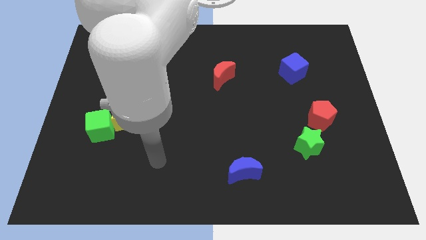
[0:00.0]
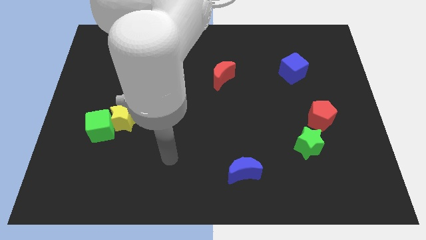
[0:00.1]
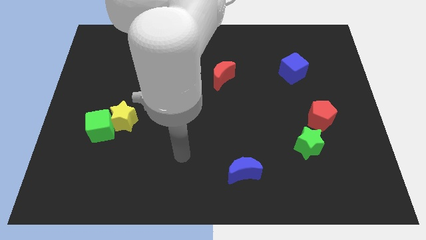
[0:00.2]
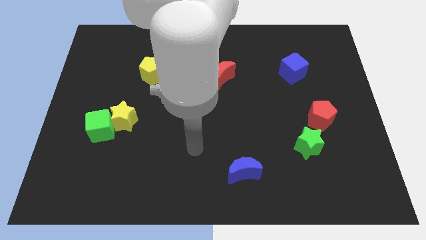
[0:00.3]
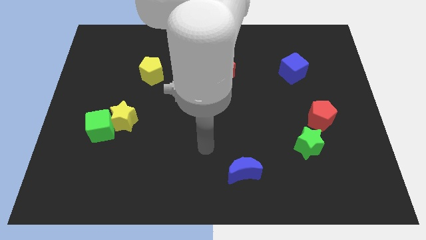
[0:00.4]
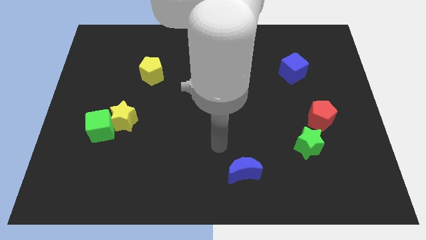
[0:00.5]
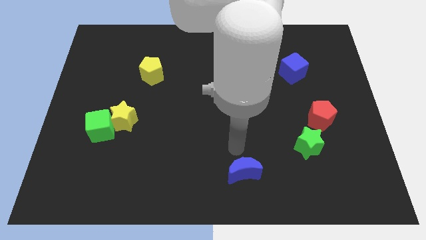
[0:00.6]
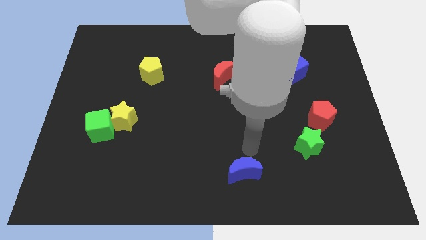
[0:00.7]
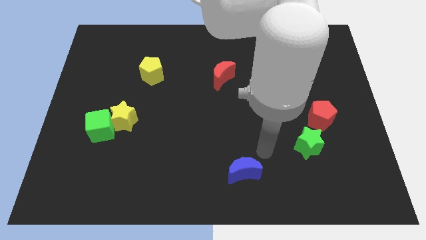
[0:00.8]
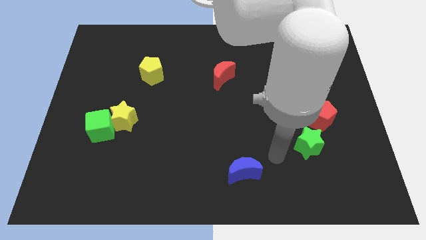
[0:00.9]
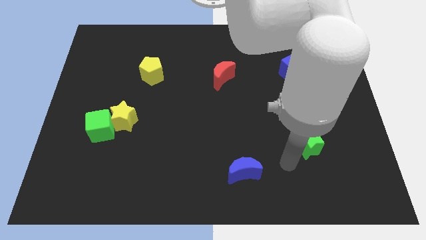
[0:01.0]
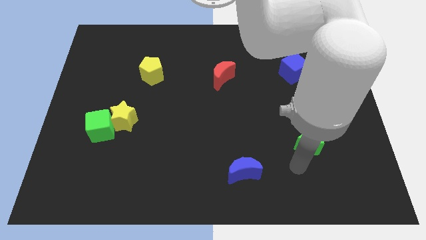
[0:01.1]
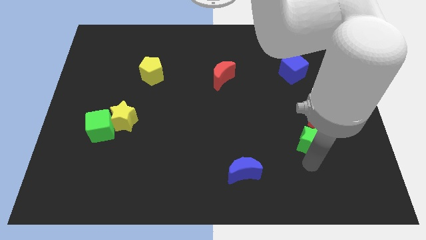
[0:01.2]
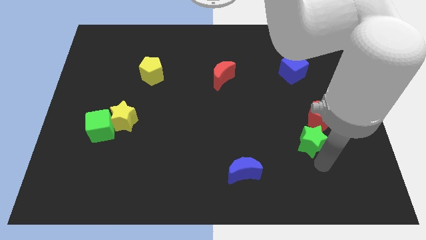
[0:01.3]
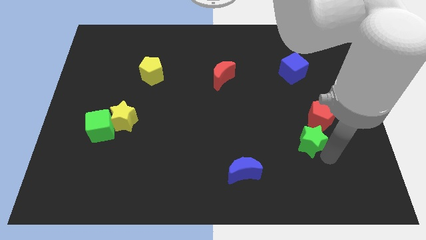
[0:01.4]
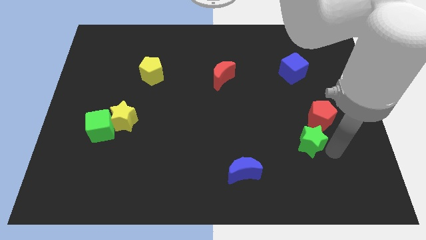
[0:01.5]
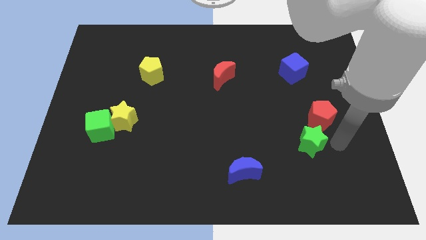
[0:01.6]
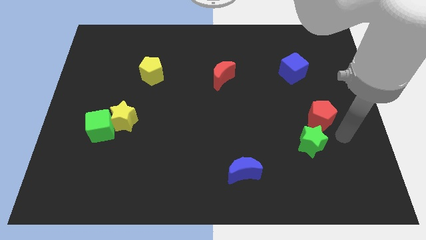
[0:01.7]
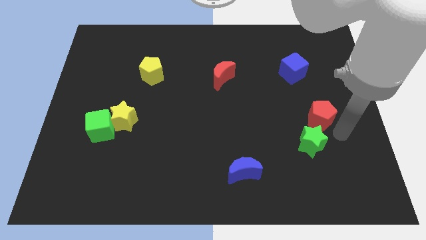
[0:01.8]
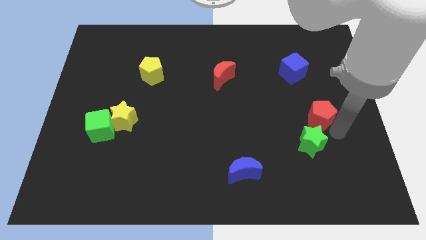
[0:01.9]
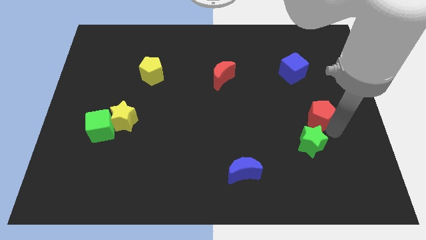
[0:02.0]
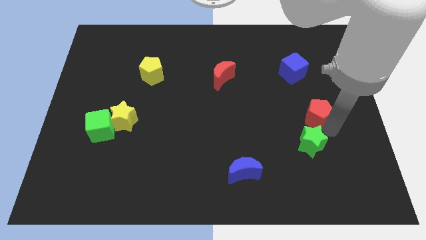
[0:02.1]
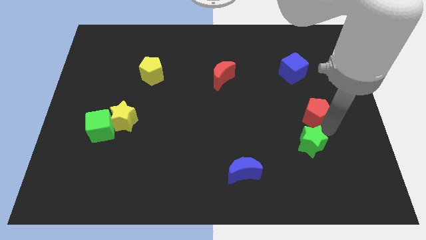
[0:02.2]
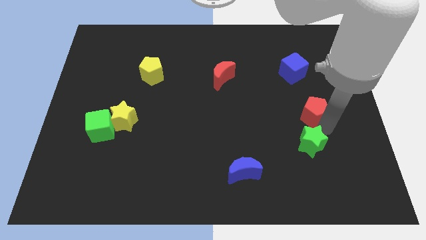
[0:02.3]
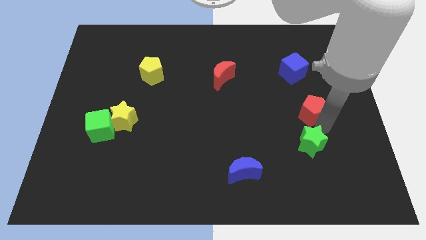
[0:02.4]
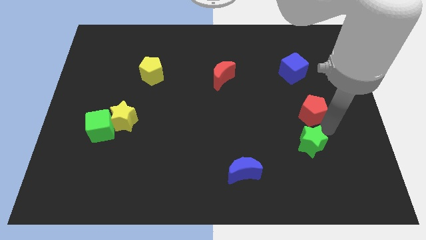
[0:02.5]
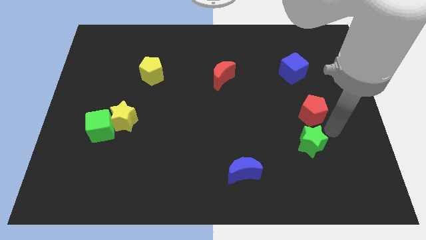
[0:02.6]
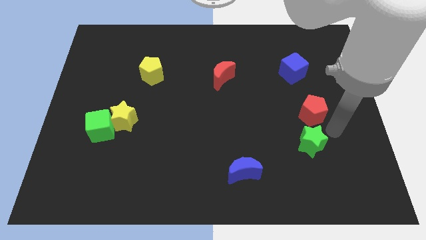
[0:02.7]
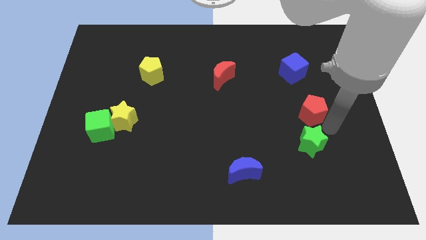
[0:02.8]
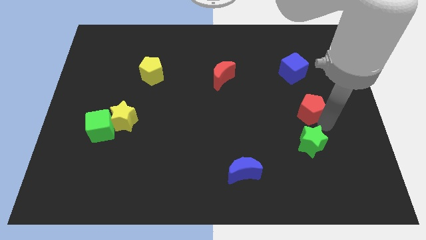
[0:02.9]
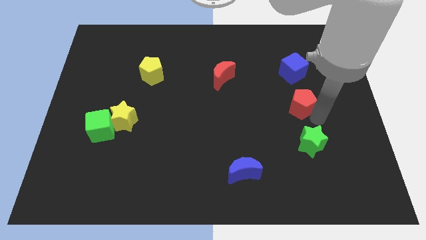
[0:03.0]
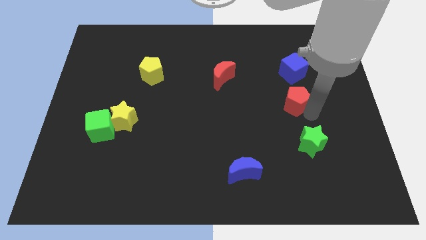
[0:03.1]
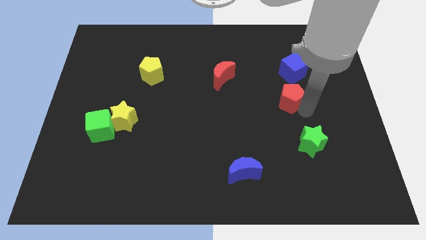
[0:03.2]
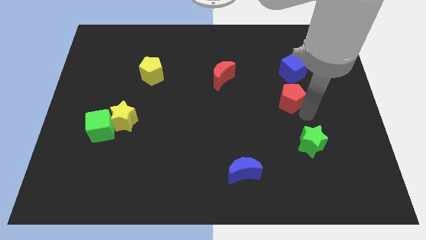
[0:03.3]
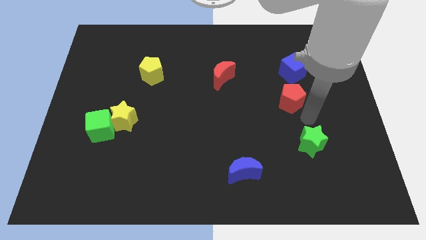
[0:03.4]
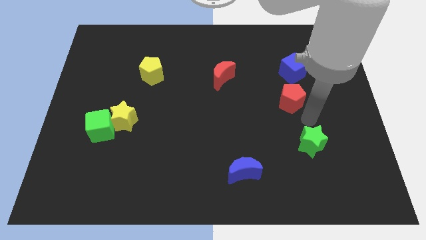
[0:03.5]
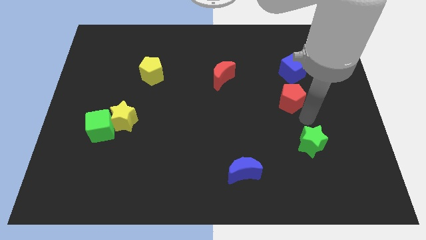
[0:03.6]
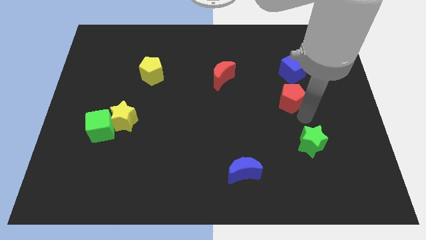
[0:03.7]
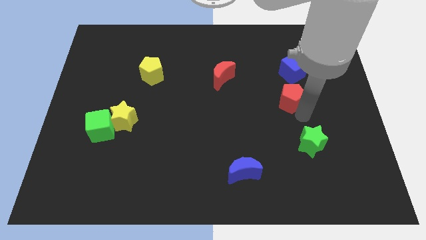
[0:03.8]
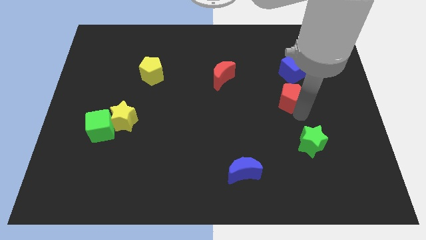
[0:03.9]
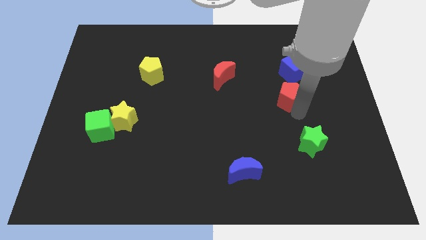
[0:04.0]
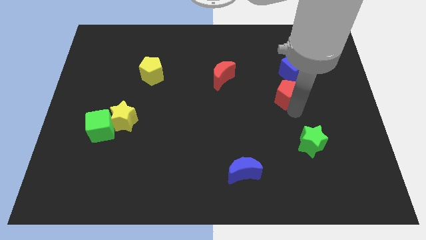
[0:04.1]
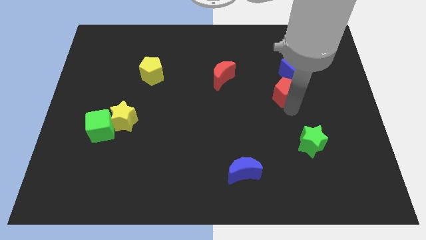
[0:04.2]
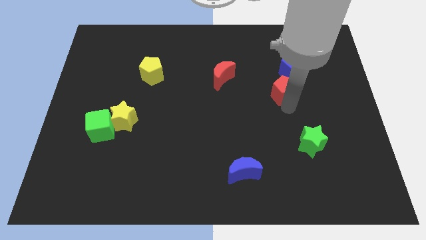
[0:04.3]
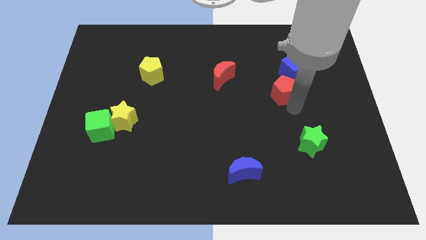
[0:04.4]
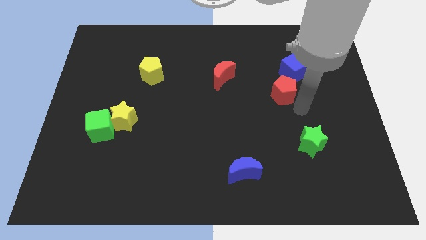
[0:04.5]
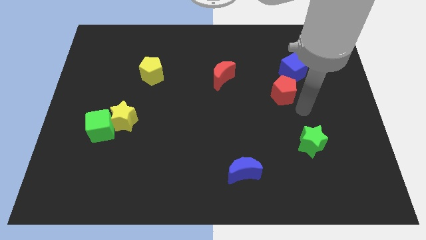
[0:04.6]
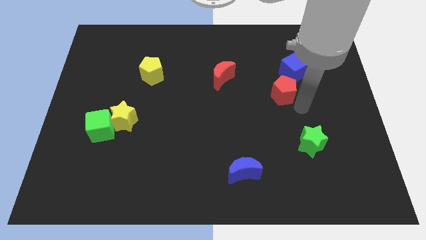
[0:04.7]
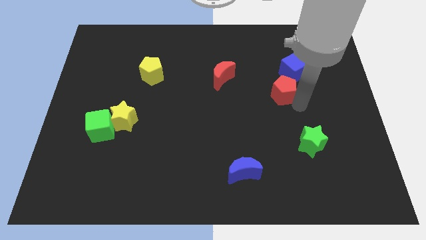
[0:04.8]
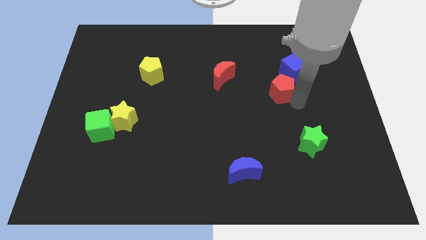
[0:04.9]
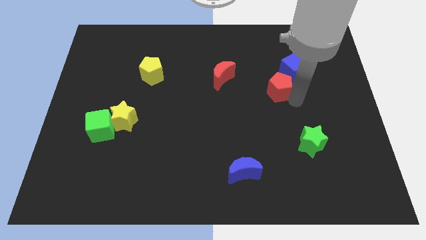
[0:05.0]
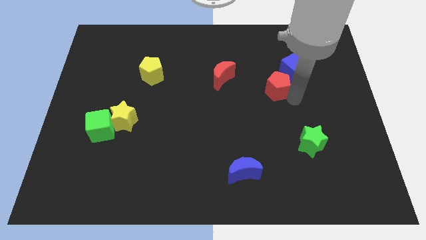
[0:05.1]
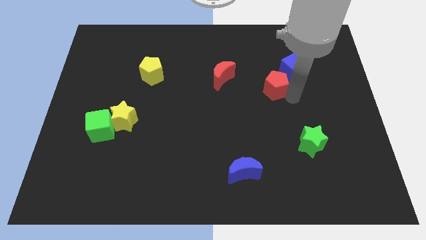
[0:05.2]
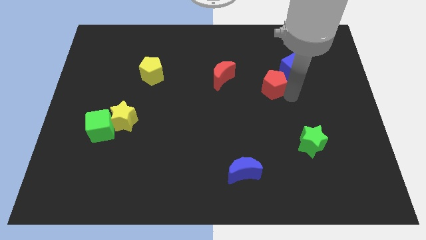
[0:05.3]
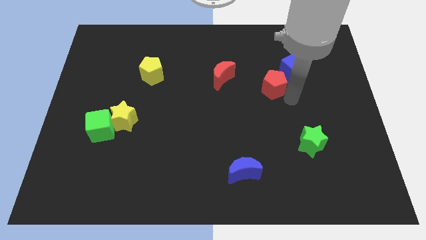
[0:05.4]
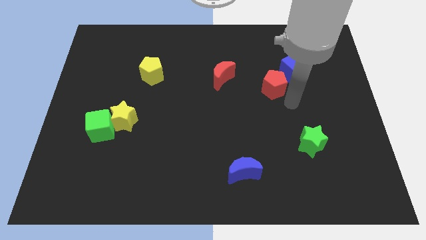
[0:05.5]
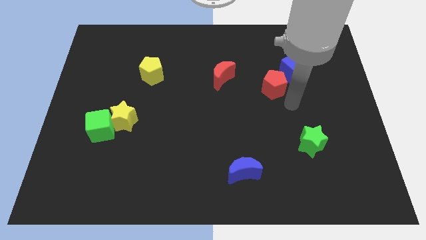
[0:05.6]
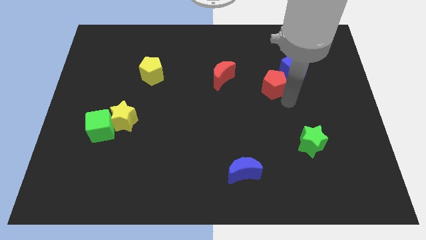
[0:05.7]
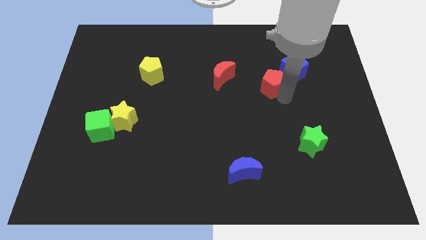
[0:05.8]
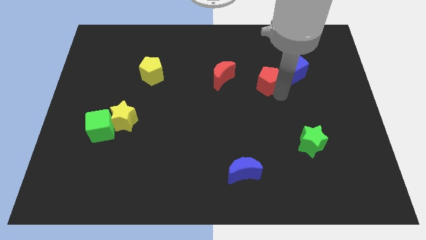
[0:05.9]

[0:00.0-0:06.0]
move the red pentagon left of the blue cube

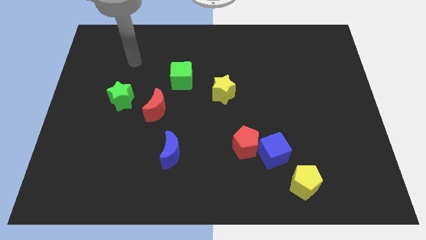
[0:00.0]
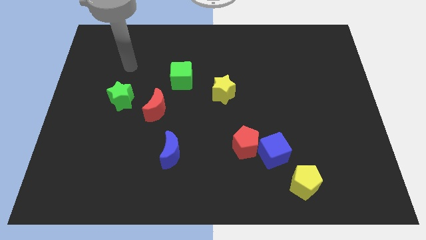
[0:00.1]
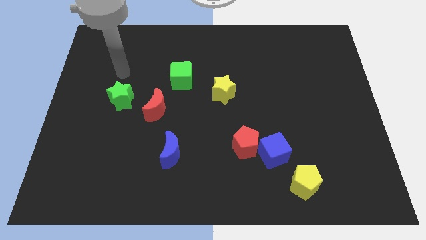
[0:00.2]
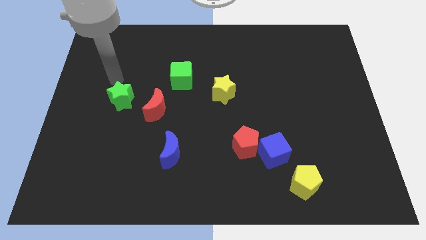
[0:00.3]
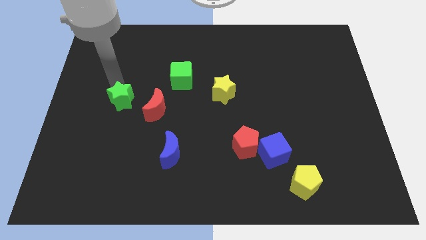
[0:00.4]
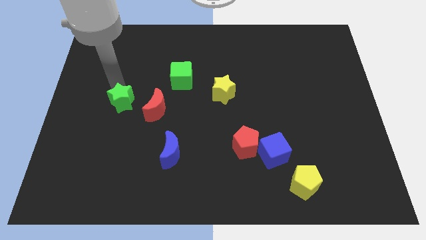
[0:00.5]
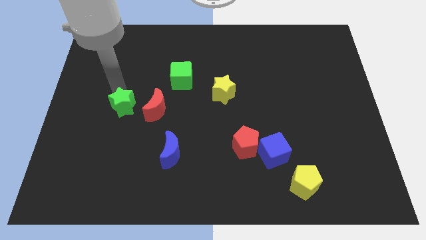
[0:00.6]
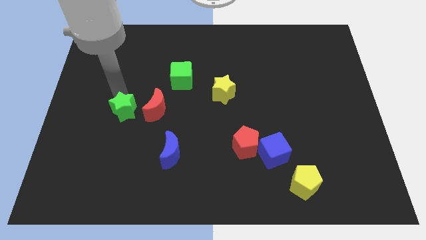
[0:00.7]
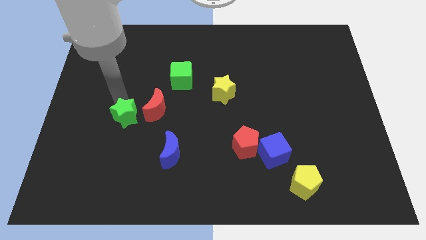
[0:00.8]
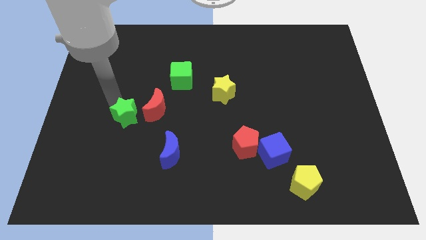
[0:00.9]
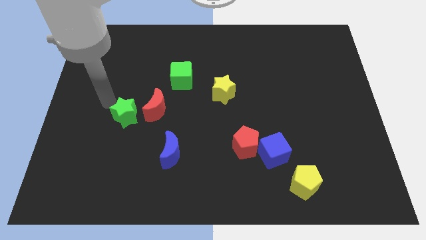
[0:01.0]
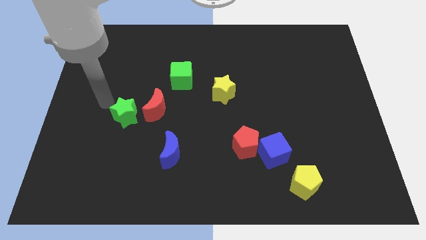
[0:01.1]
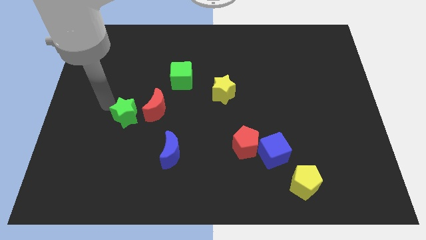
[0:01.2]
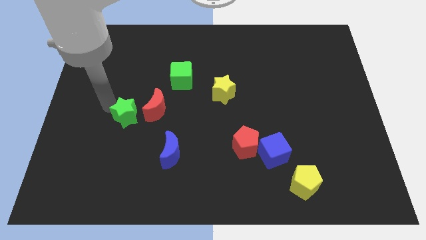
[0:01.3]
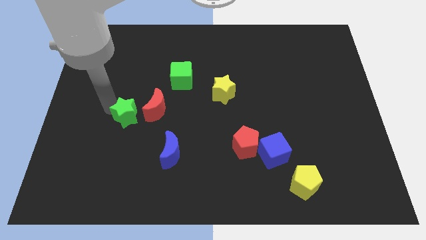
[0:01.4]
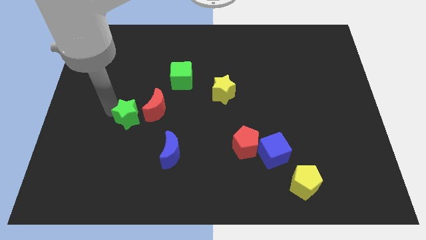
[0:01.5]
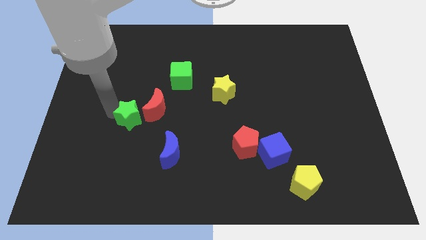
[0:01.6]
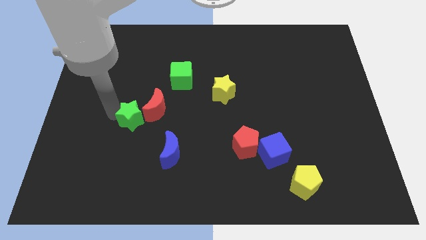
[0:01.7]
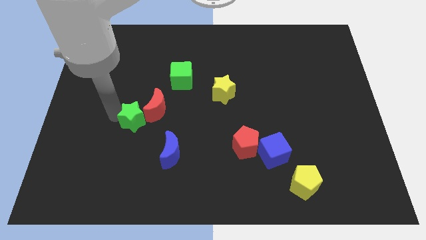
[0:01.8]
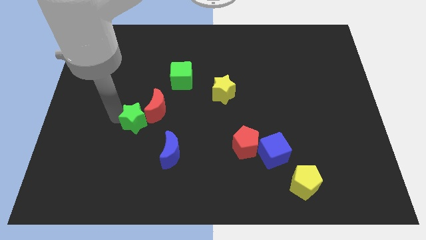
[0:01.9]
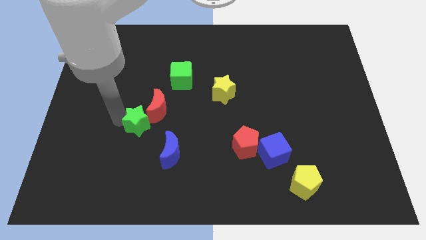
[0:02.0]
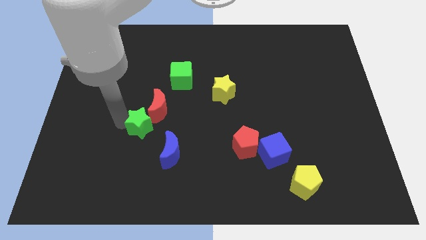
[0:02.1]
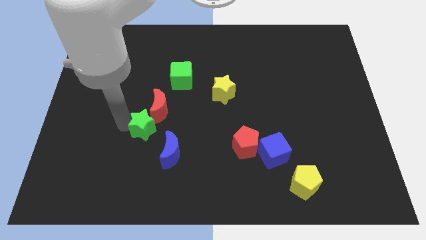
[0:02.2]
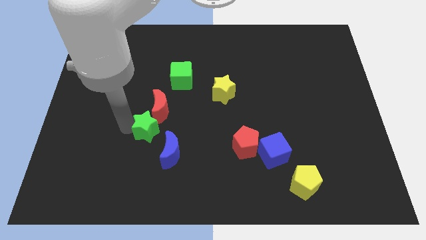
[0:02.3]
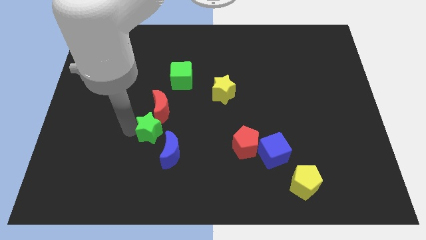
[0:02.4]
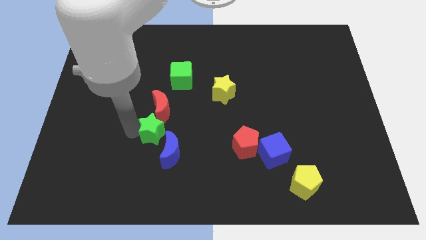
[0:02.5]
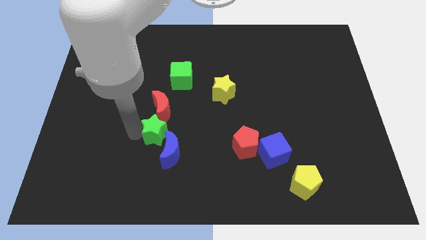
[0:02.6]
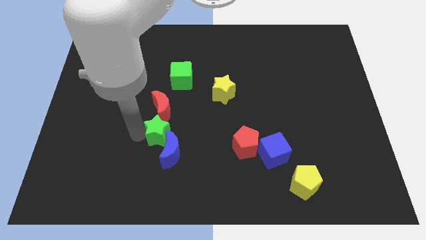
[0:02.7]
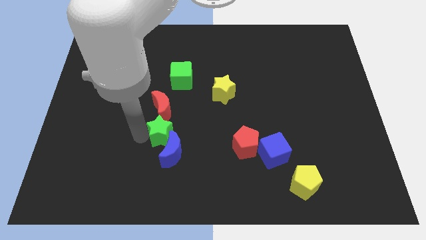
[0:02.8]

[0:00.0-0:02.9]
move the green star to the bottom right side of the red moon
